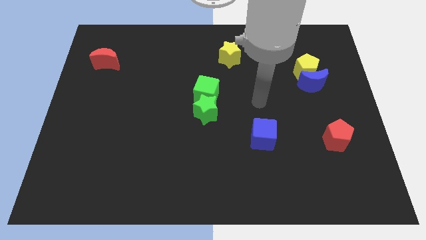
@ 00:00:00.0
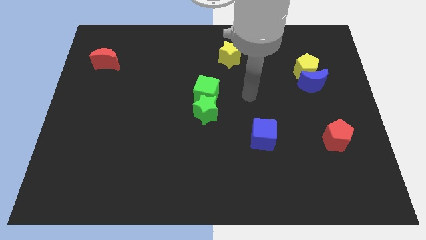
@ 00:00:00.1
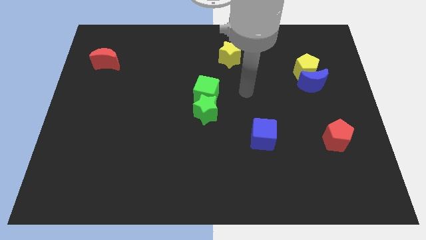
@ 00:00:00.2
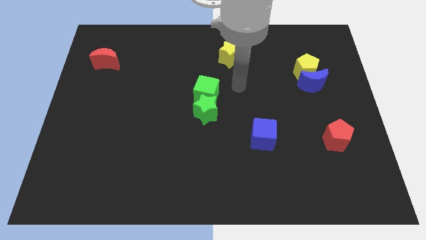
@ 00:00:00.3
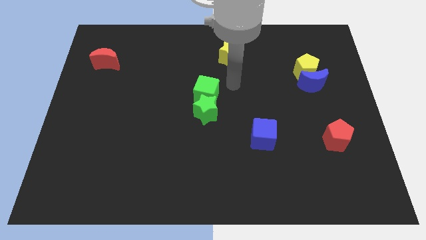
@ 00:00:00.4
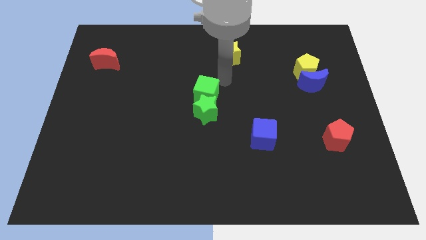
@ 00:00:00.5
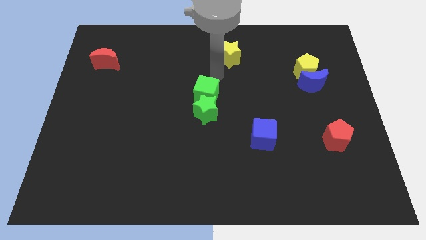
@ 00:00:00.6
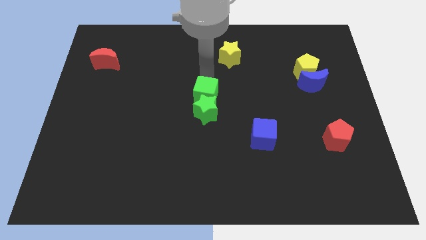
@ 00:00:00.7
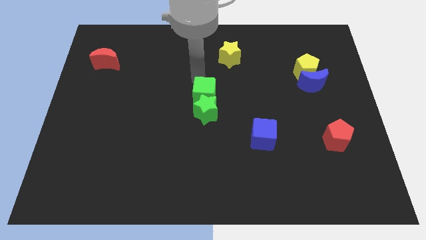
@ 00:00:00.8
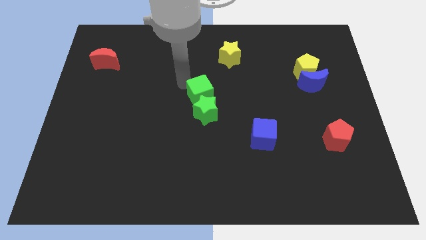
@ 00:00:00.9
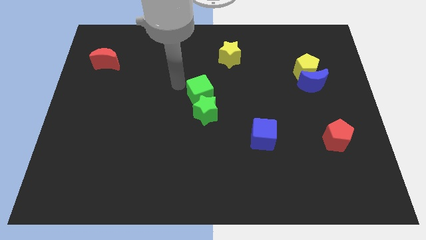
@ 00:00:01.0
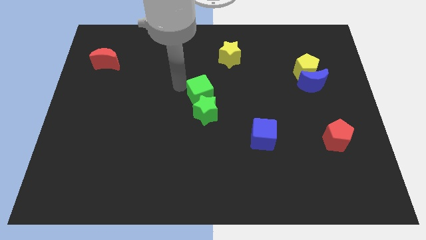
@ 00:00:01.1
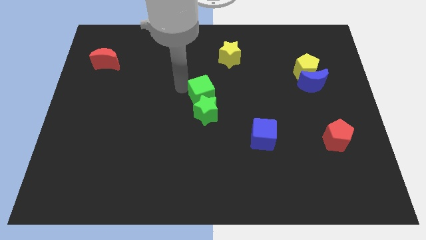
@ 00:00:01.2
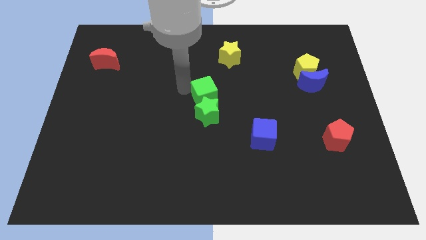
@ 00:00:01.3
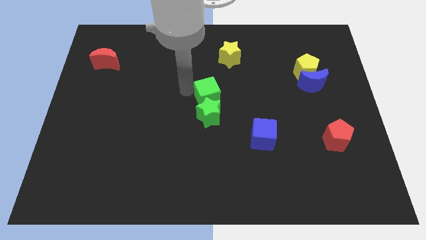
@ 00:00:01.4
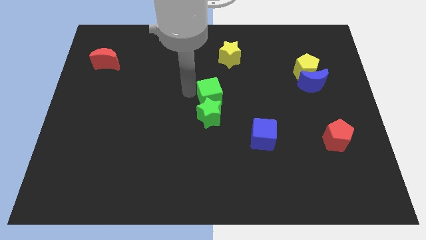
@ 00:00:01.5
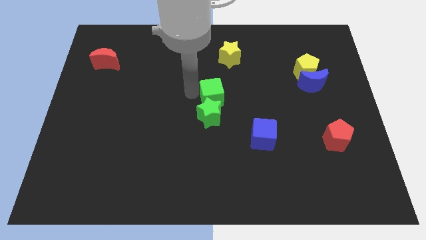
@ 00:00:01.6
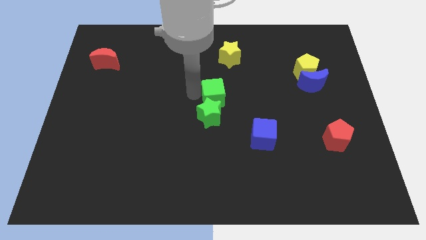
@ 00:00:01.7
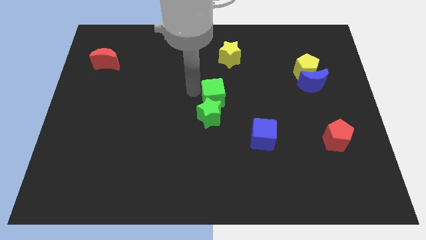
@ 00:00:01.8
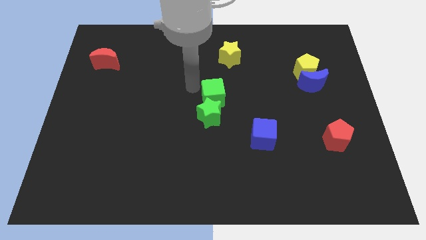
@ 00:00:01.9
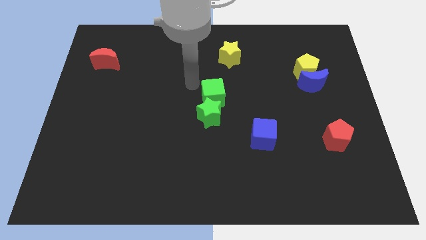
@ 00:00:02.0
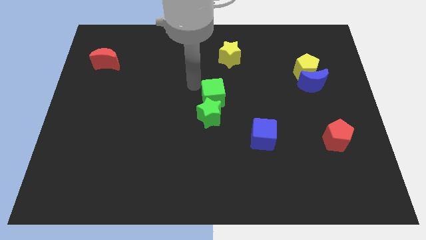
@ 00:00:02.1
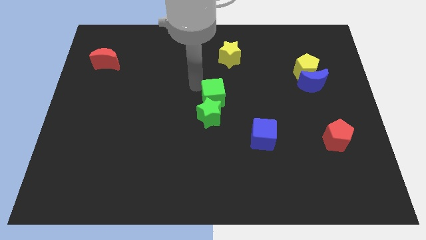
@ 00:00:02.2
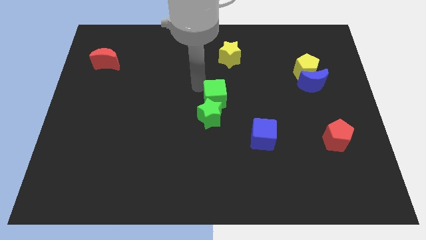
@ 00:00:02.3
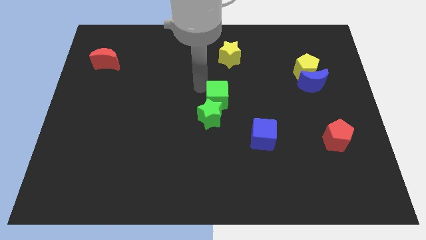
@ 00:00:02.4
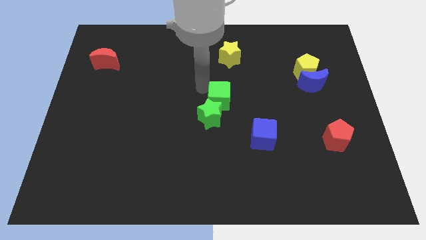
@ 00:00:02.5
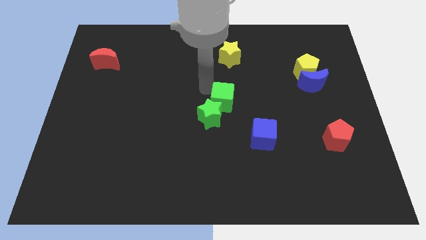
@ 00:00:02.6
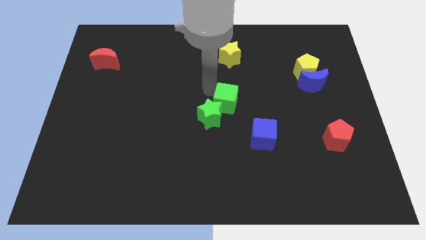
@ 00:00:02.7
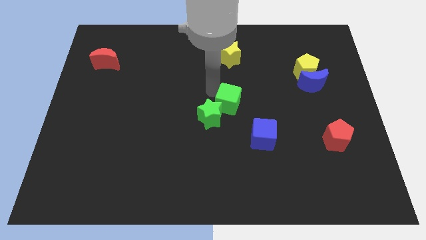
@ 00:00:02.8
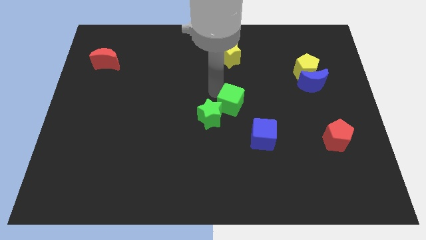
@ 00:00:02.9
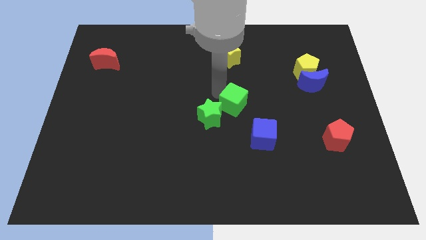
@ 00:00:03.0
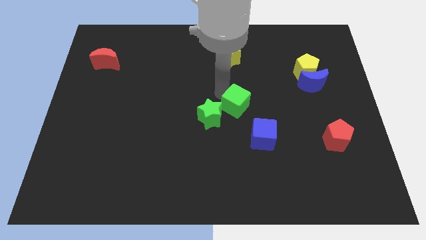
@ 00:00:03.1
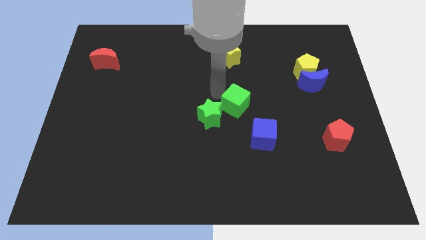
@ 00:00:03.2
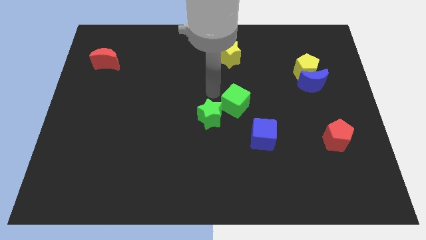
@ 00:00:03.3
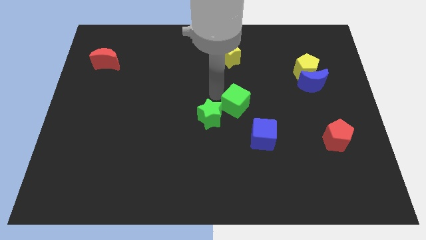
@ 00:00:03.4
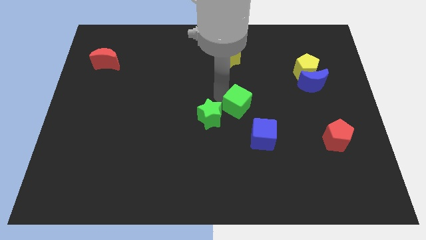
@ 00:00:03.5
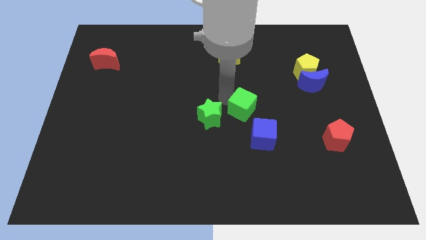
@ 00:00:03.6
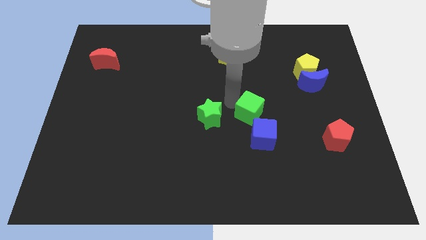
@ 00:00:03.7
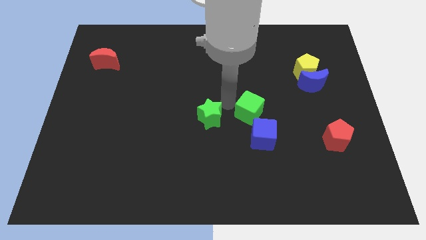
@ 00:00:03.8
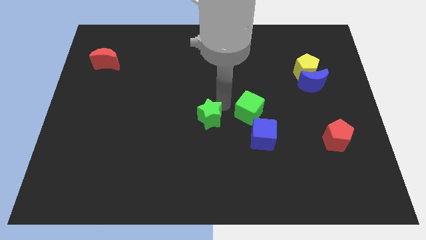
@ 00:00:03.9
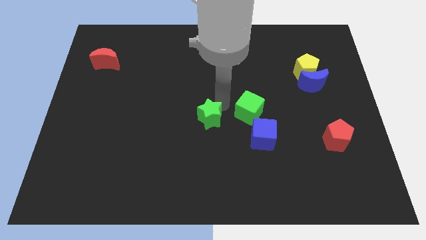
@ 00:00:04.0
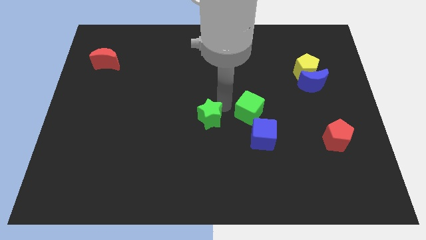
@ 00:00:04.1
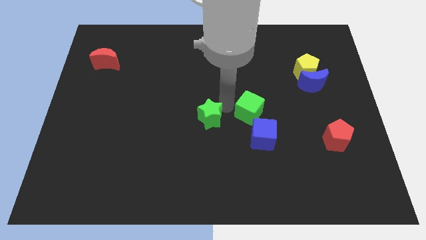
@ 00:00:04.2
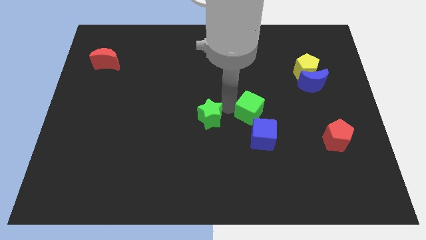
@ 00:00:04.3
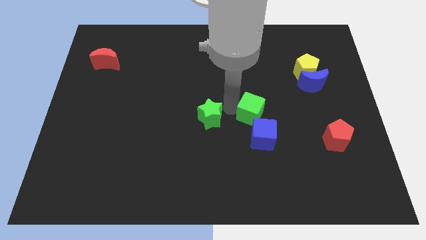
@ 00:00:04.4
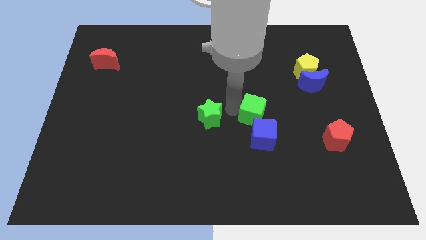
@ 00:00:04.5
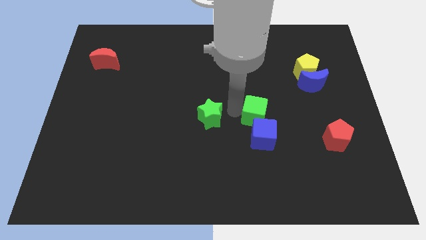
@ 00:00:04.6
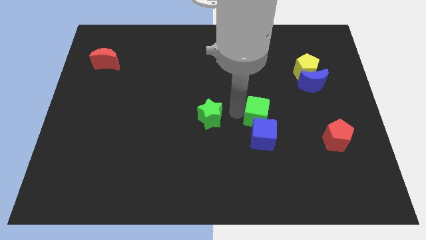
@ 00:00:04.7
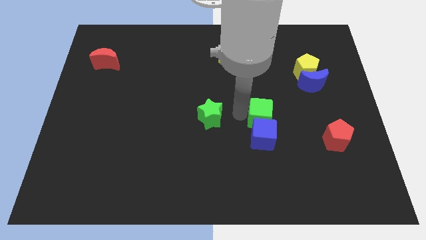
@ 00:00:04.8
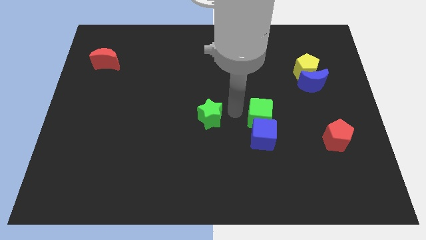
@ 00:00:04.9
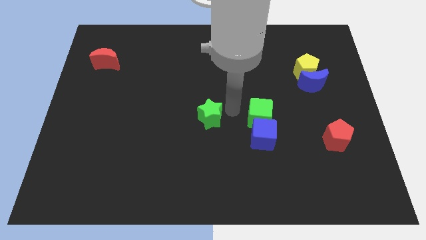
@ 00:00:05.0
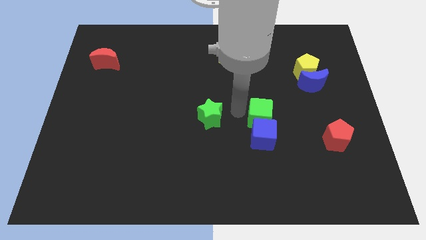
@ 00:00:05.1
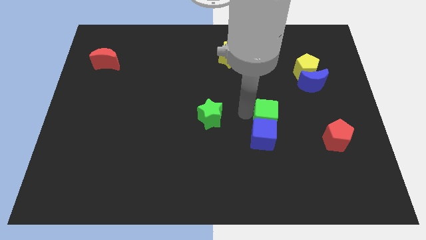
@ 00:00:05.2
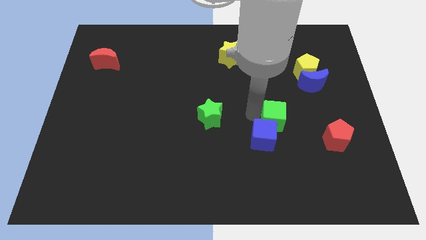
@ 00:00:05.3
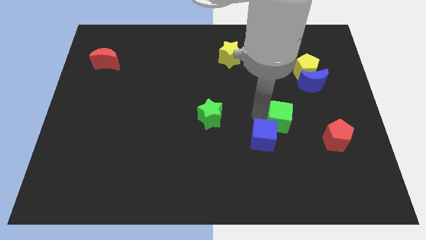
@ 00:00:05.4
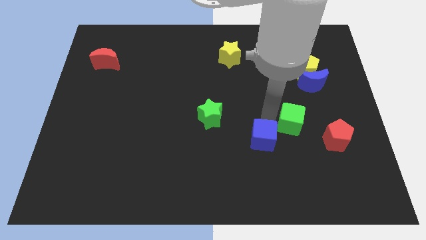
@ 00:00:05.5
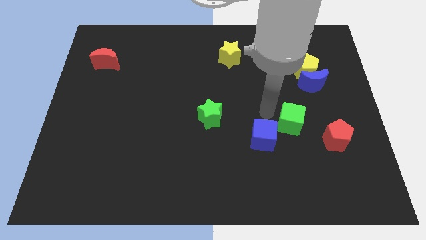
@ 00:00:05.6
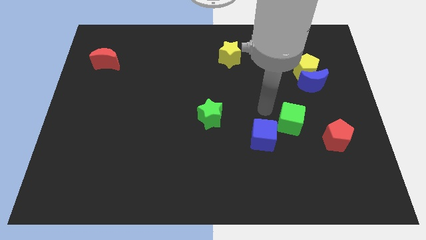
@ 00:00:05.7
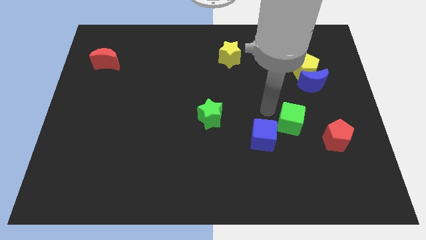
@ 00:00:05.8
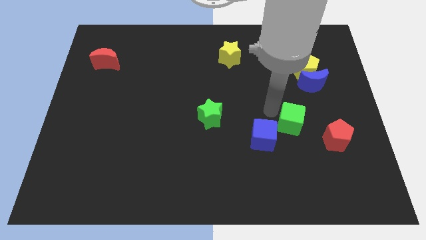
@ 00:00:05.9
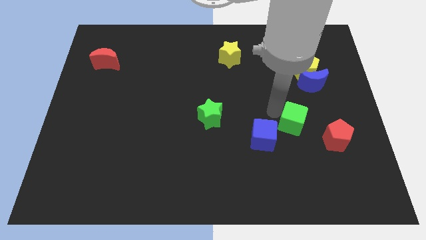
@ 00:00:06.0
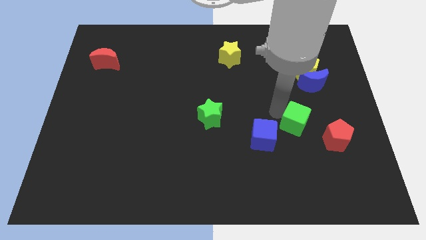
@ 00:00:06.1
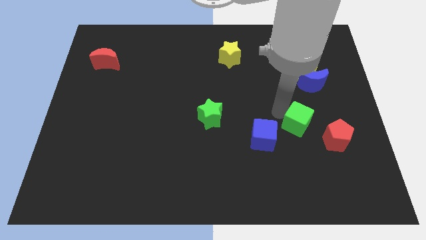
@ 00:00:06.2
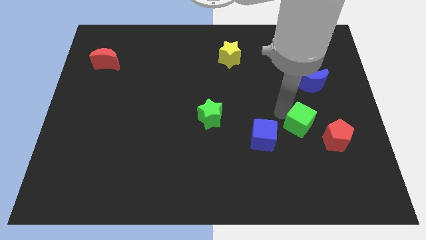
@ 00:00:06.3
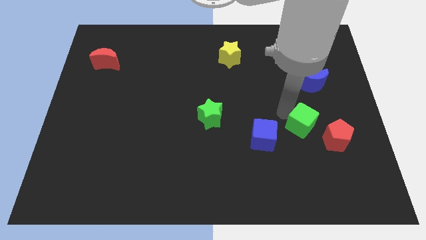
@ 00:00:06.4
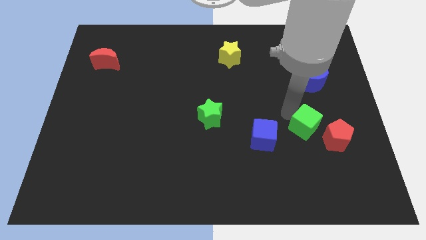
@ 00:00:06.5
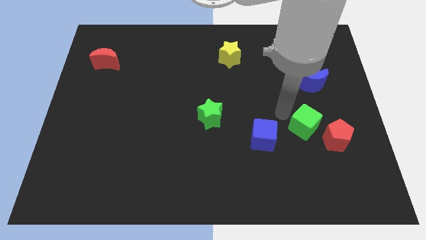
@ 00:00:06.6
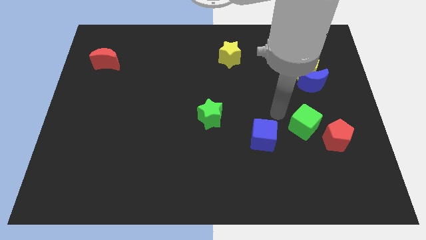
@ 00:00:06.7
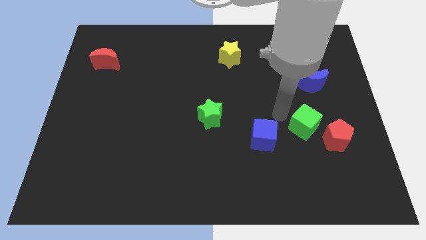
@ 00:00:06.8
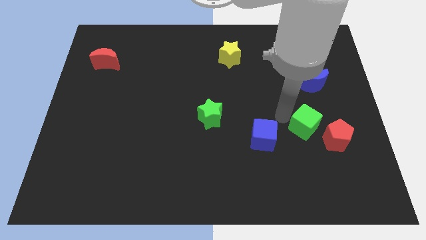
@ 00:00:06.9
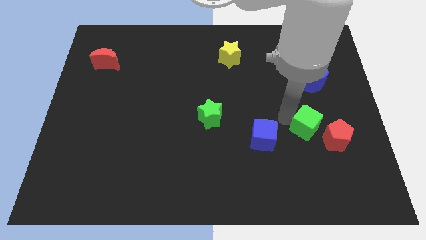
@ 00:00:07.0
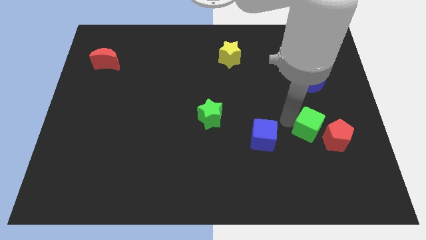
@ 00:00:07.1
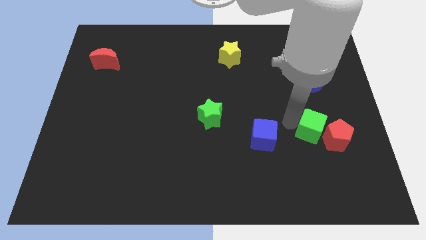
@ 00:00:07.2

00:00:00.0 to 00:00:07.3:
slide the green cube towards the red pentagon
